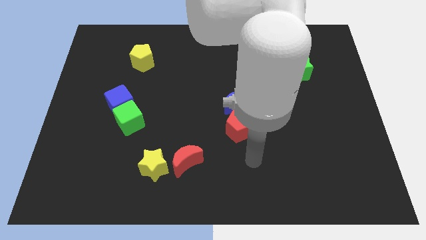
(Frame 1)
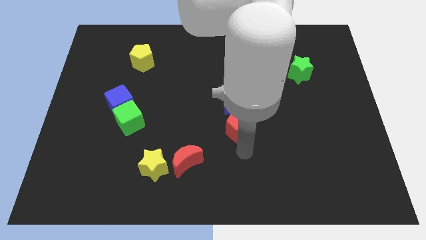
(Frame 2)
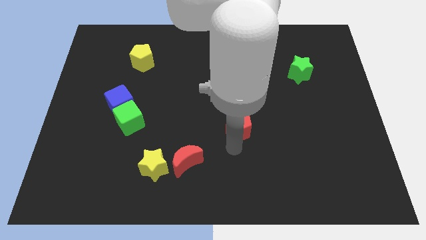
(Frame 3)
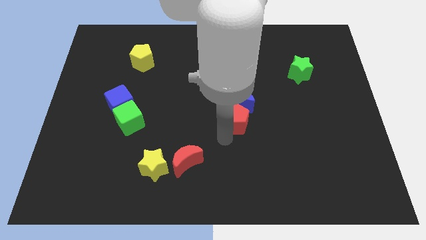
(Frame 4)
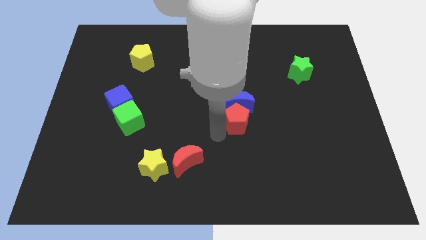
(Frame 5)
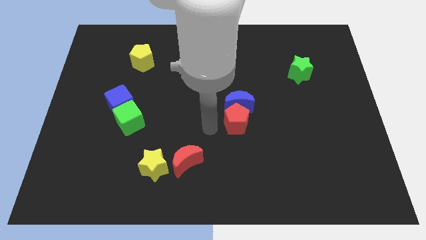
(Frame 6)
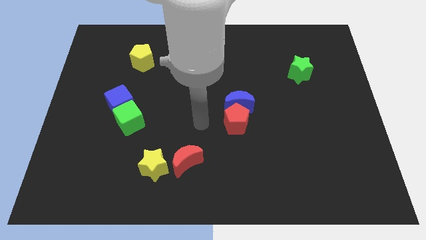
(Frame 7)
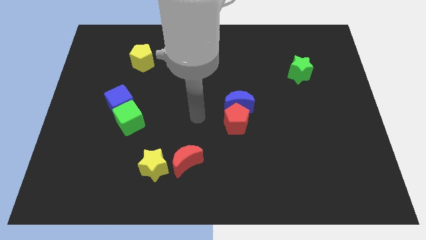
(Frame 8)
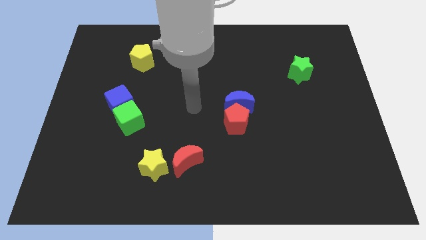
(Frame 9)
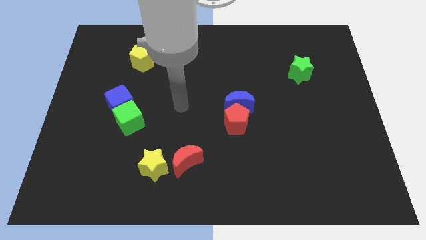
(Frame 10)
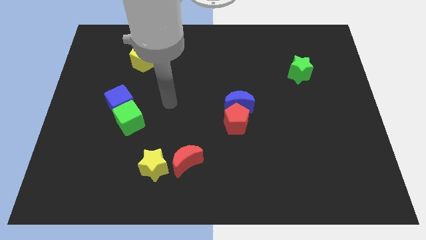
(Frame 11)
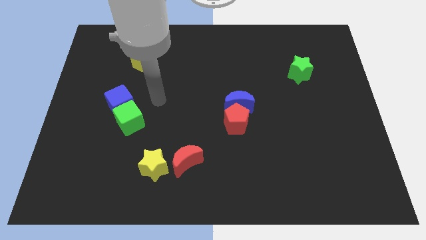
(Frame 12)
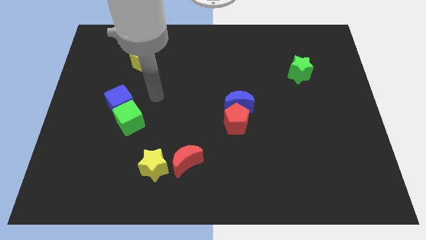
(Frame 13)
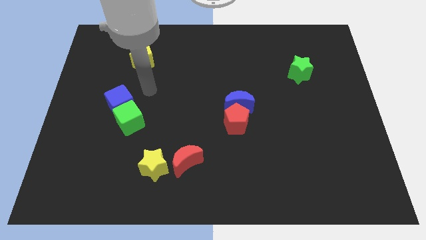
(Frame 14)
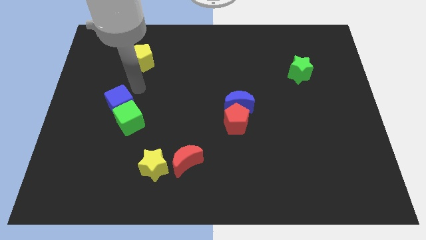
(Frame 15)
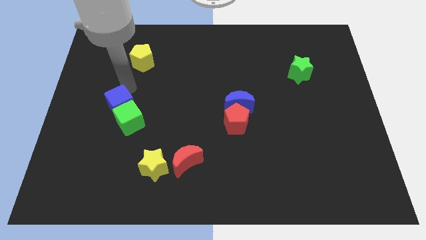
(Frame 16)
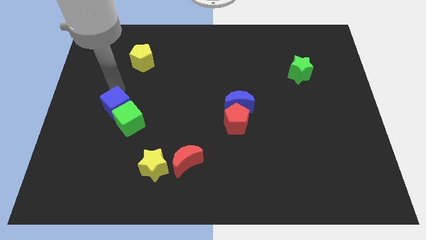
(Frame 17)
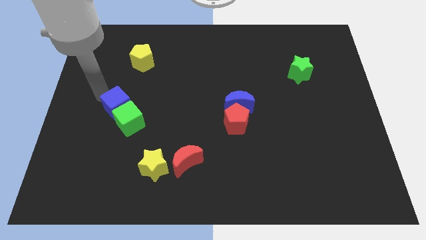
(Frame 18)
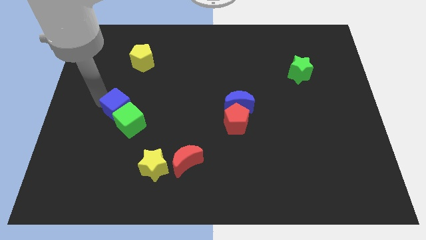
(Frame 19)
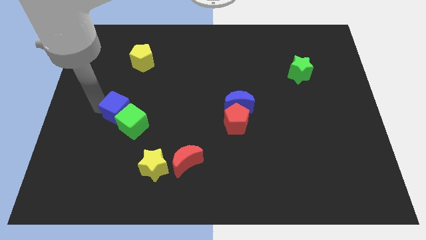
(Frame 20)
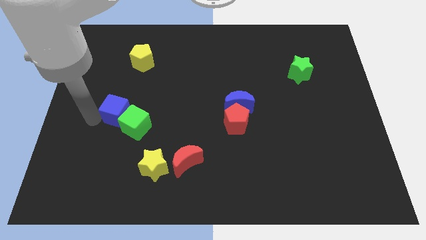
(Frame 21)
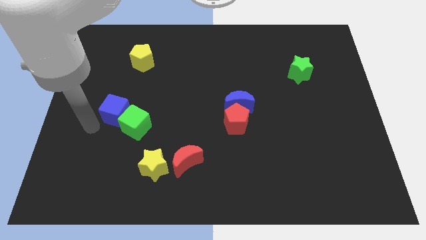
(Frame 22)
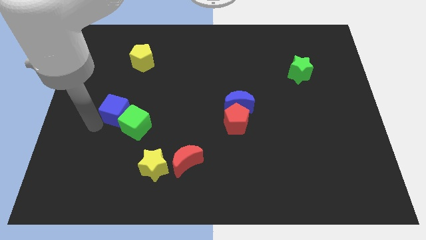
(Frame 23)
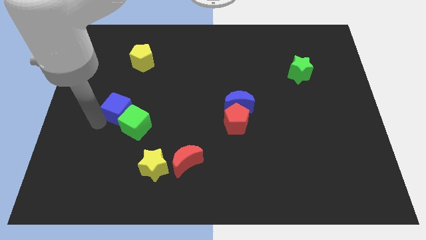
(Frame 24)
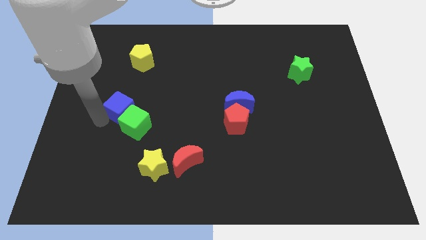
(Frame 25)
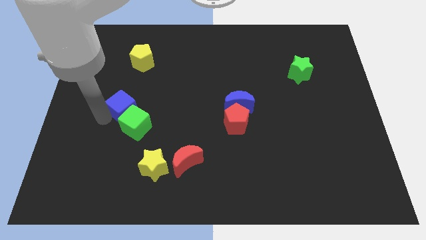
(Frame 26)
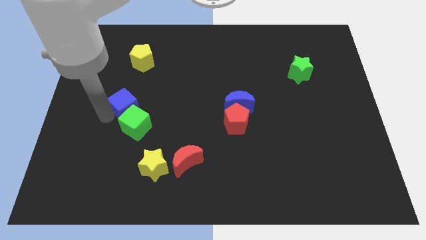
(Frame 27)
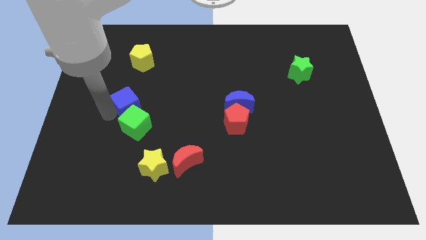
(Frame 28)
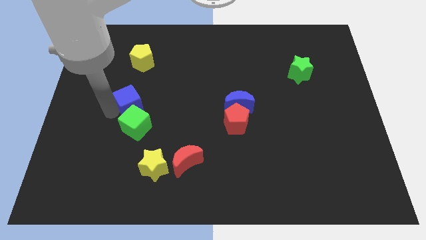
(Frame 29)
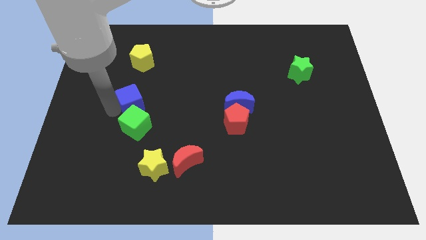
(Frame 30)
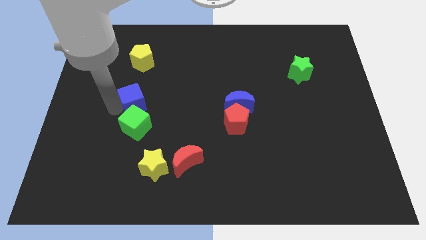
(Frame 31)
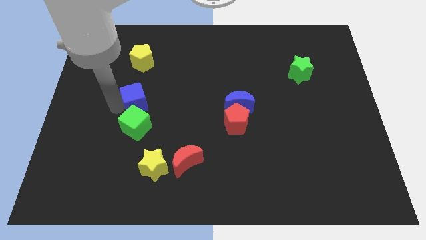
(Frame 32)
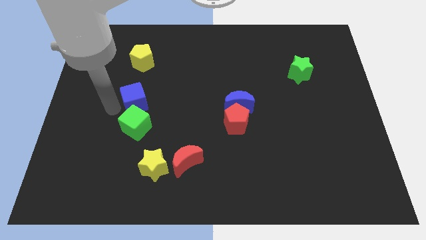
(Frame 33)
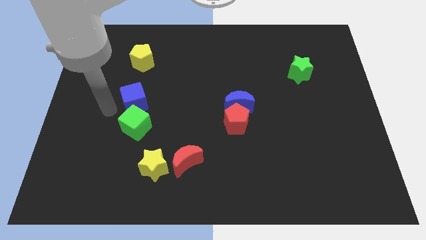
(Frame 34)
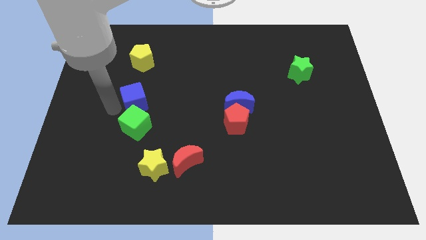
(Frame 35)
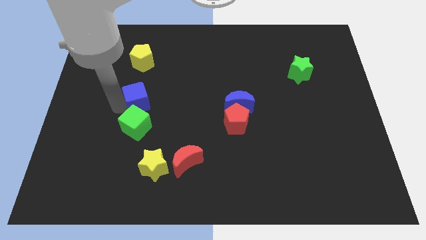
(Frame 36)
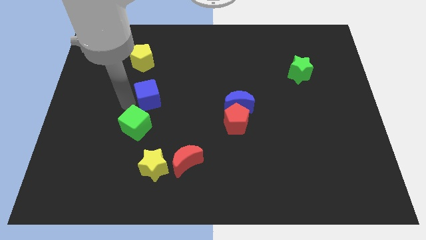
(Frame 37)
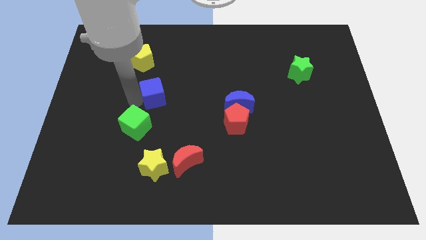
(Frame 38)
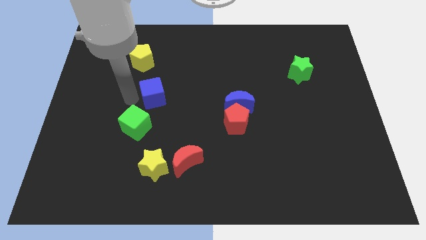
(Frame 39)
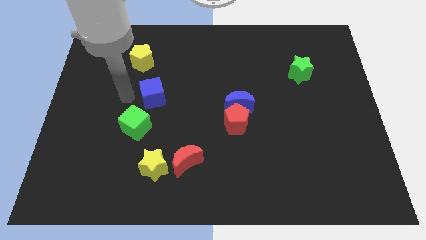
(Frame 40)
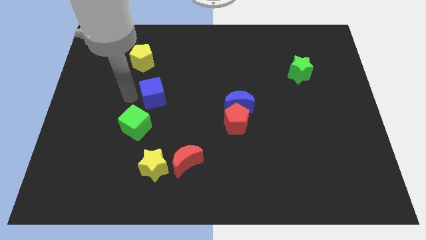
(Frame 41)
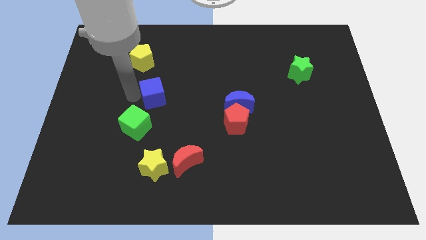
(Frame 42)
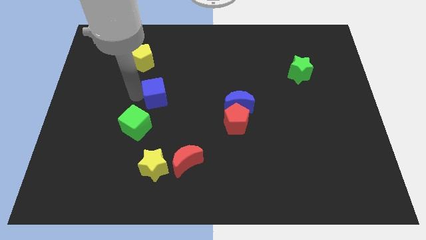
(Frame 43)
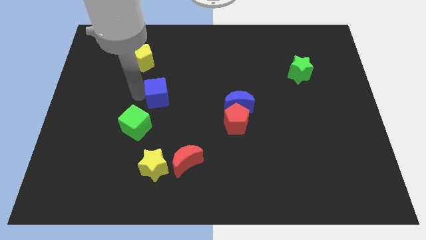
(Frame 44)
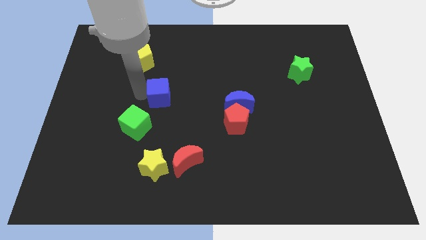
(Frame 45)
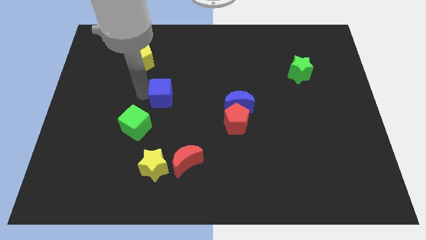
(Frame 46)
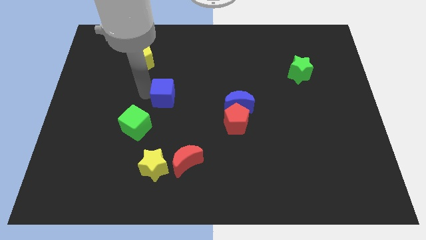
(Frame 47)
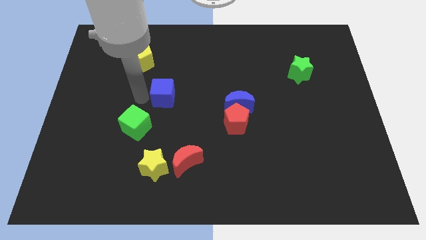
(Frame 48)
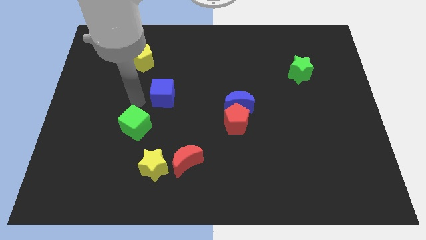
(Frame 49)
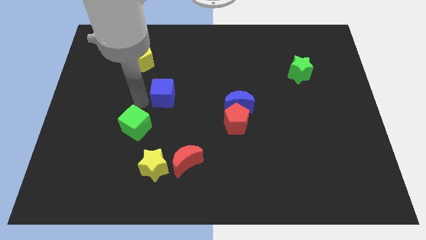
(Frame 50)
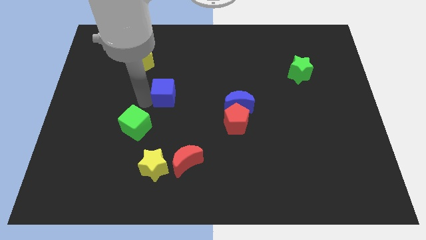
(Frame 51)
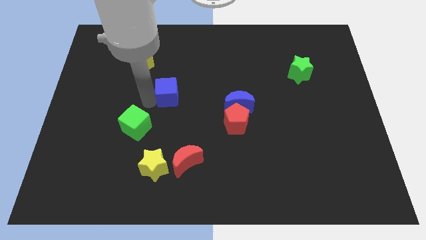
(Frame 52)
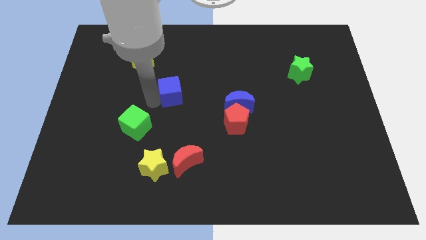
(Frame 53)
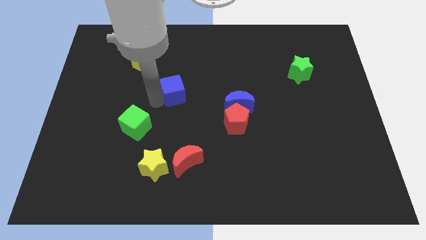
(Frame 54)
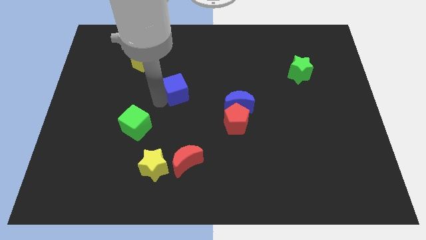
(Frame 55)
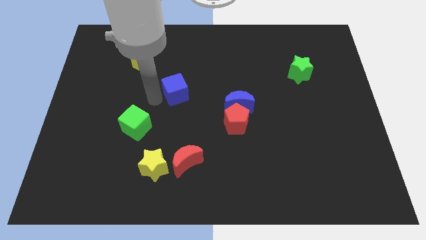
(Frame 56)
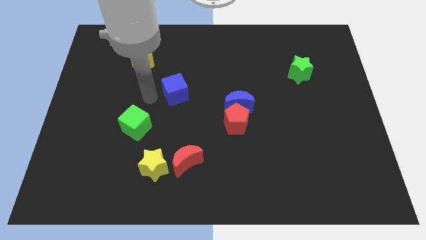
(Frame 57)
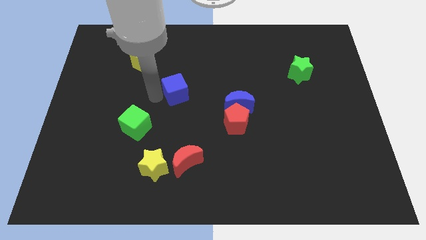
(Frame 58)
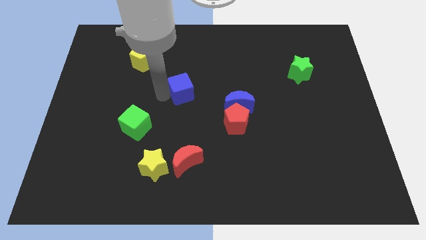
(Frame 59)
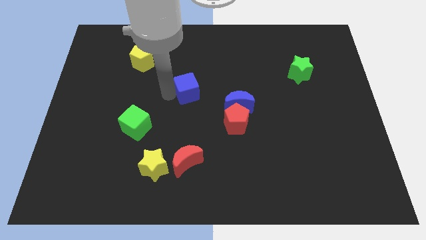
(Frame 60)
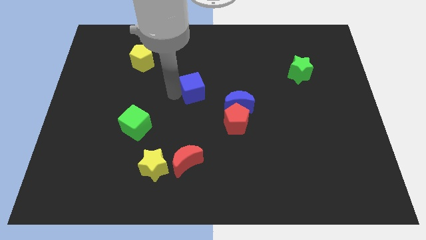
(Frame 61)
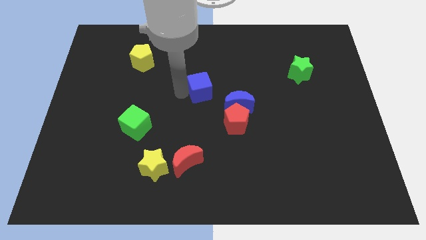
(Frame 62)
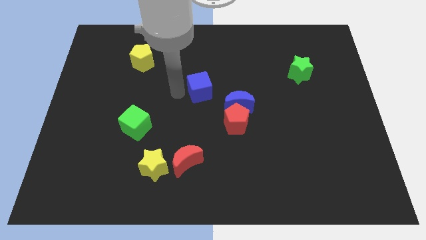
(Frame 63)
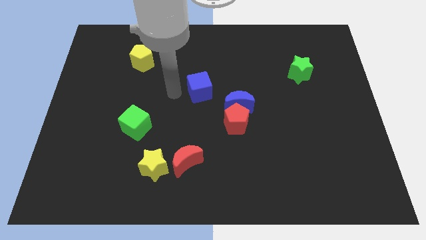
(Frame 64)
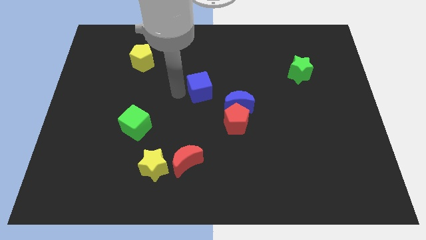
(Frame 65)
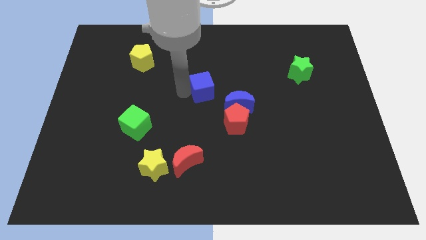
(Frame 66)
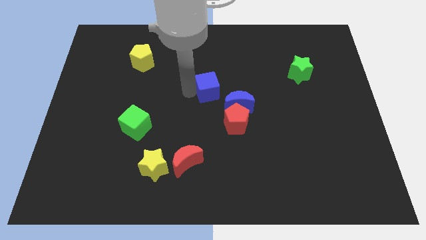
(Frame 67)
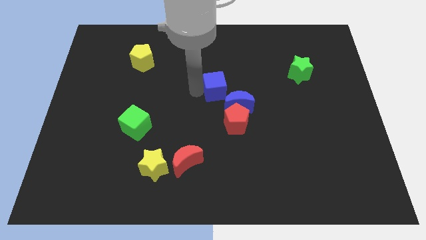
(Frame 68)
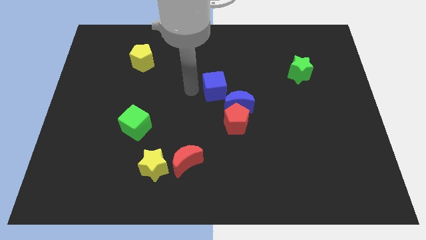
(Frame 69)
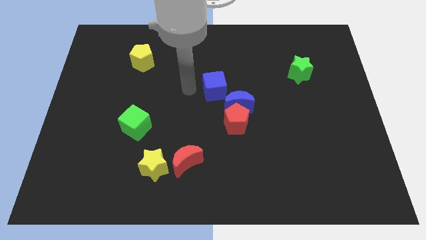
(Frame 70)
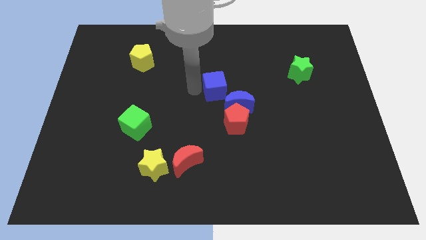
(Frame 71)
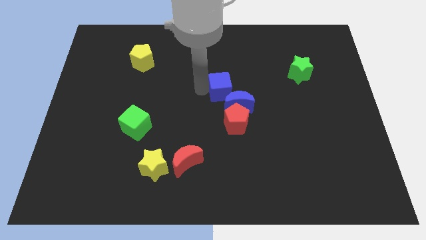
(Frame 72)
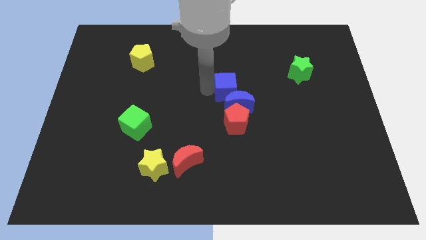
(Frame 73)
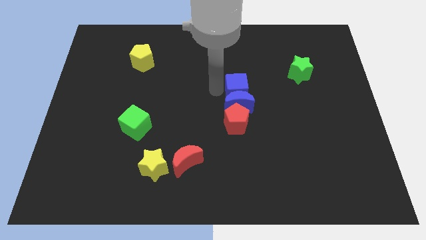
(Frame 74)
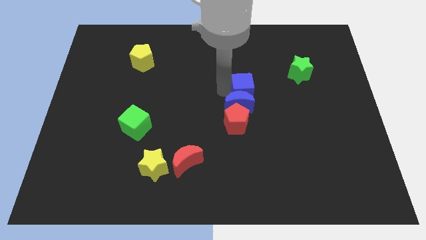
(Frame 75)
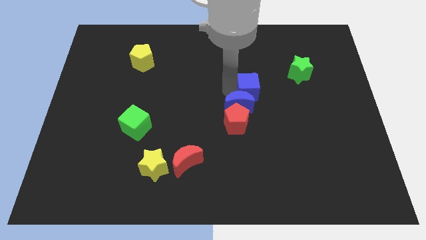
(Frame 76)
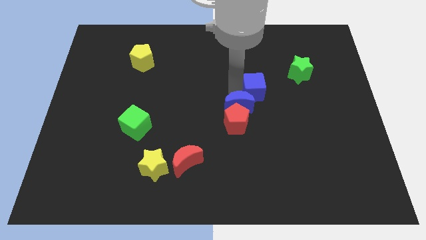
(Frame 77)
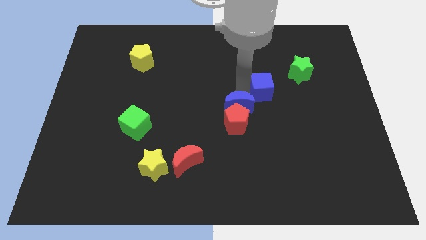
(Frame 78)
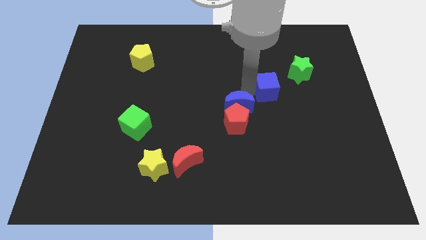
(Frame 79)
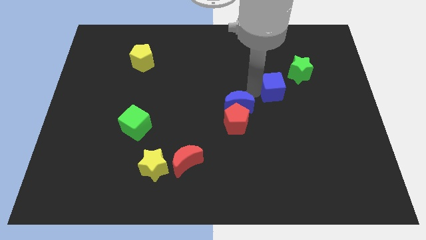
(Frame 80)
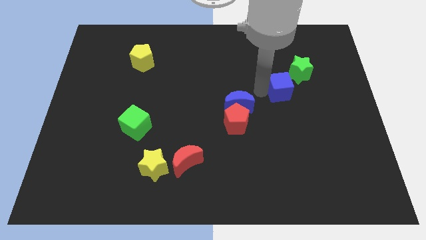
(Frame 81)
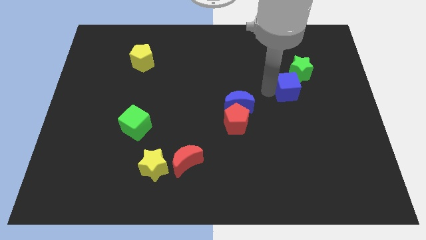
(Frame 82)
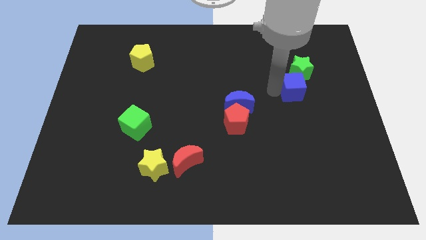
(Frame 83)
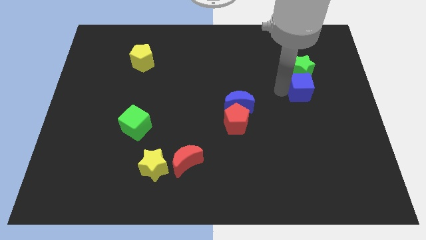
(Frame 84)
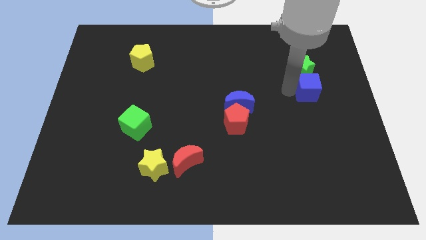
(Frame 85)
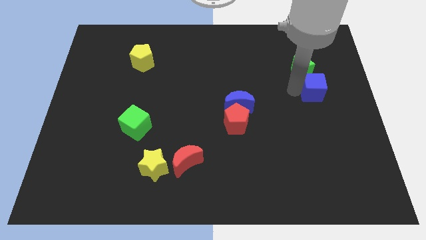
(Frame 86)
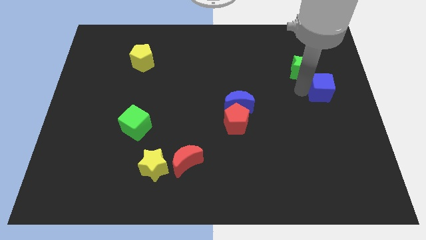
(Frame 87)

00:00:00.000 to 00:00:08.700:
push the blue cube to the right side
